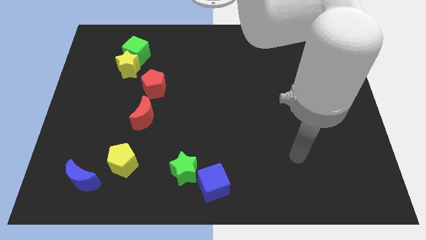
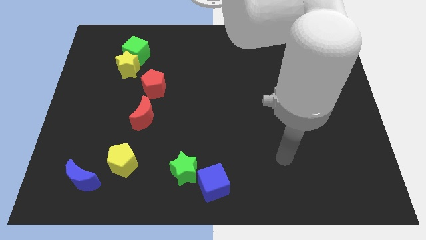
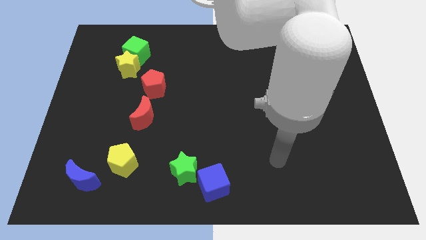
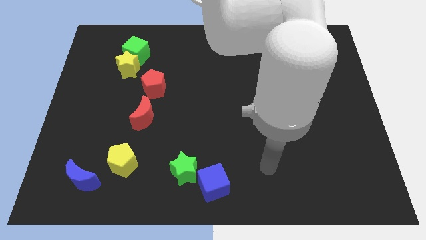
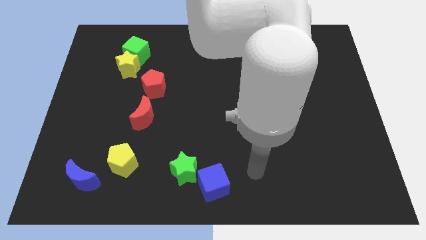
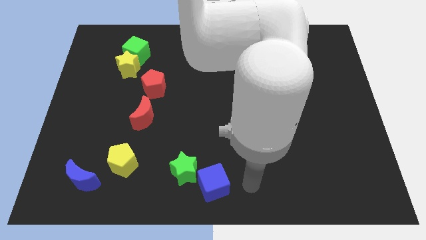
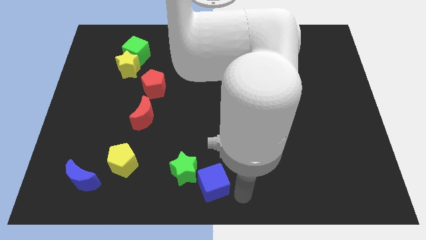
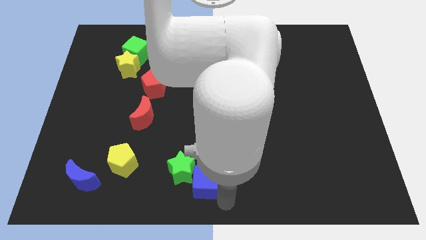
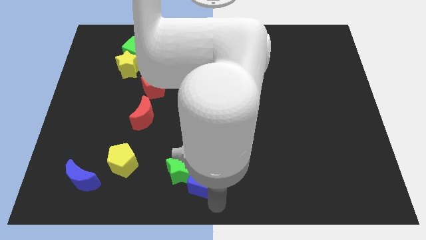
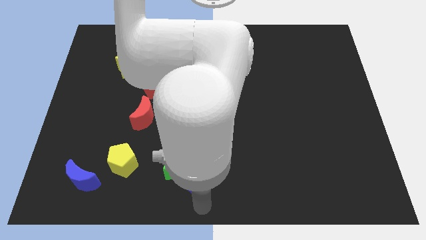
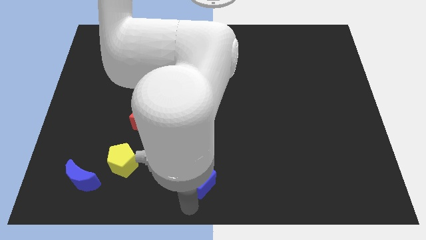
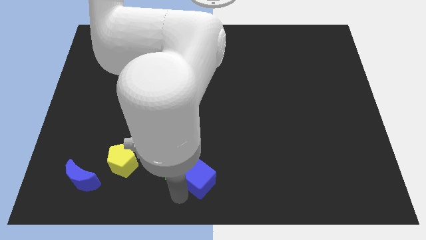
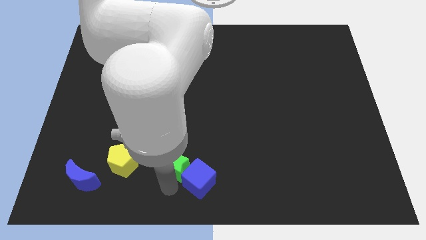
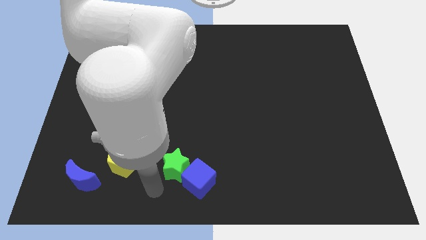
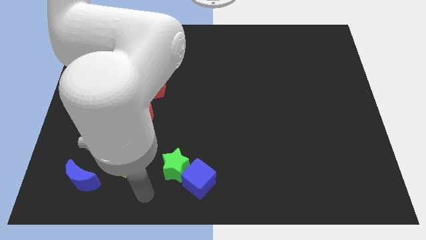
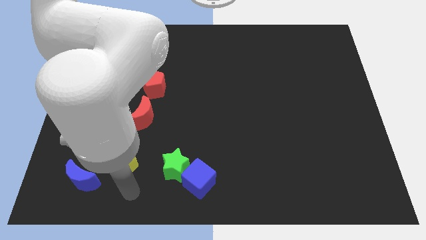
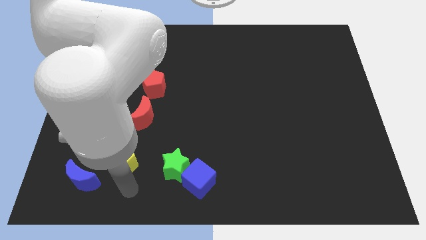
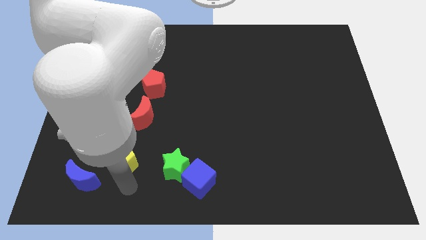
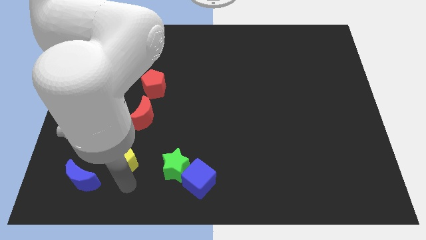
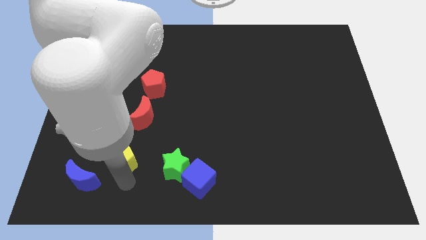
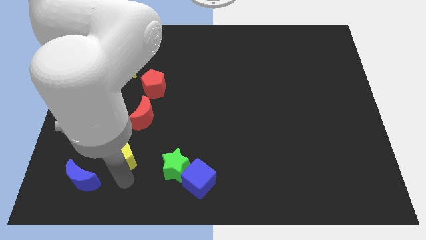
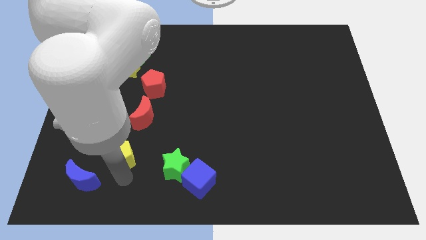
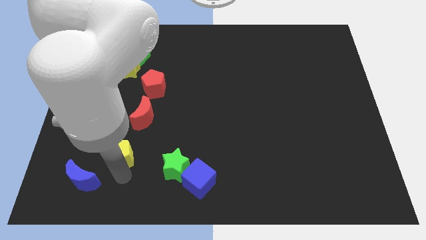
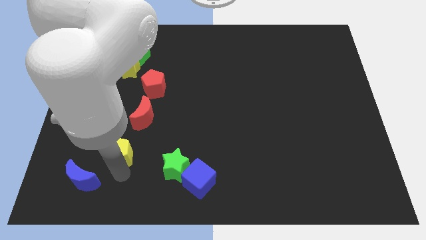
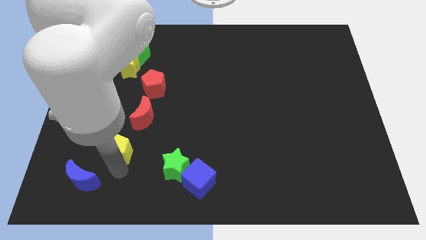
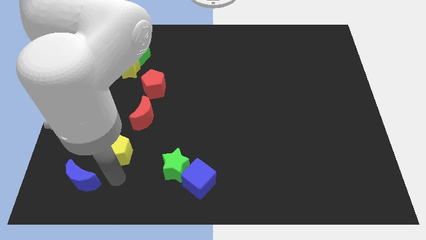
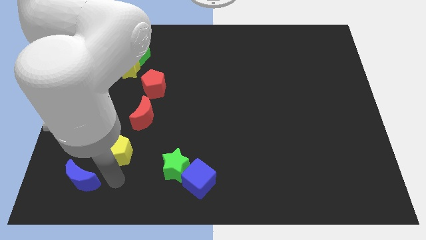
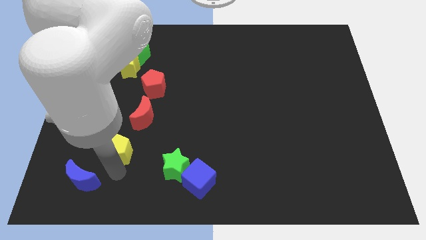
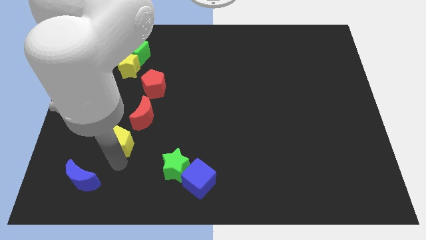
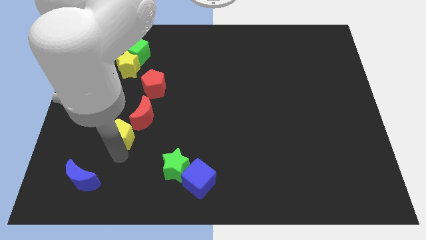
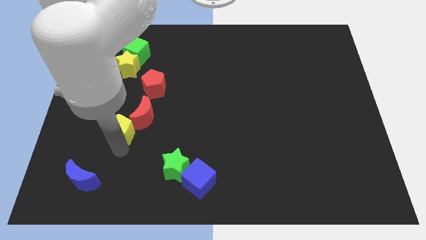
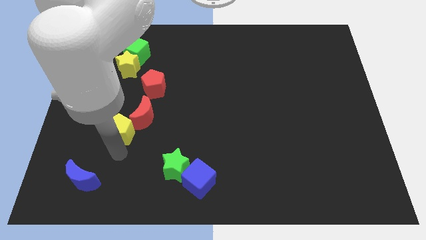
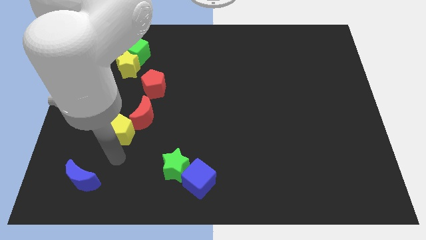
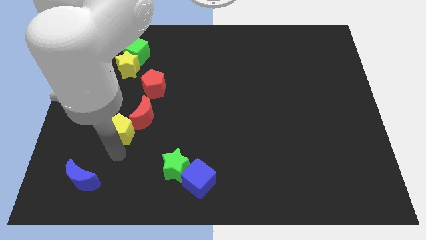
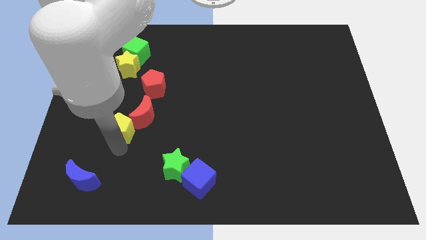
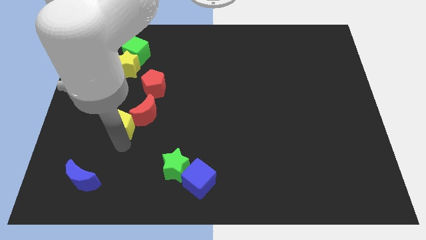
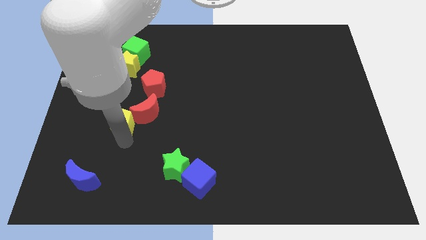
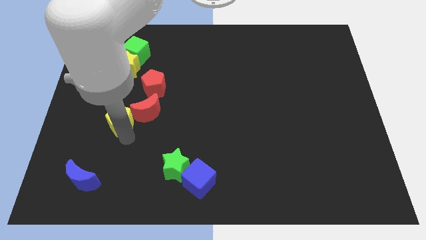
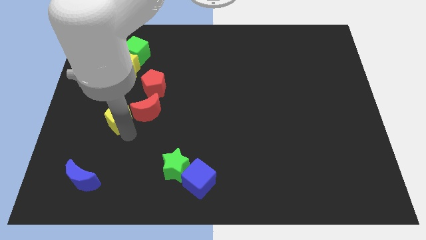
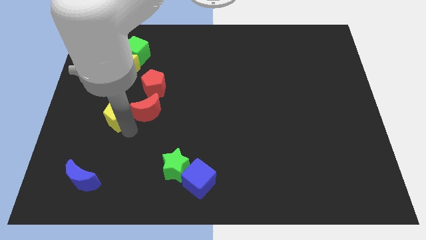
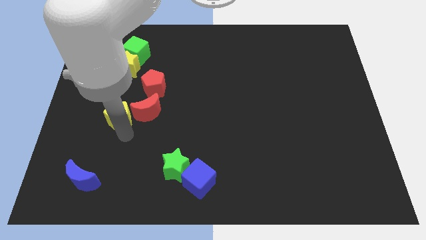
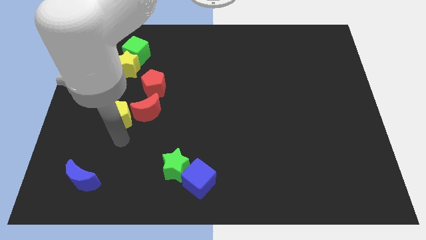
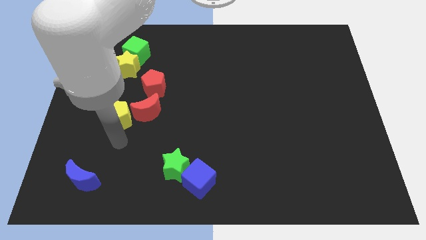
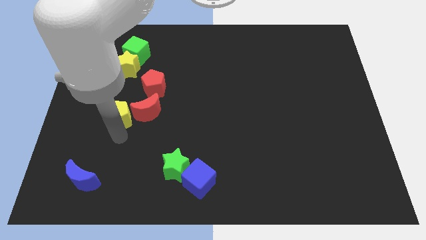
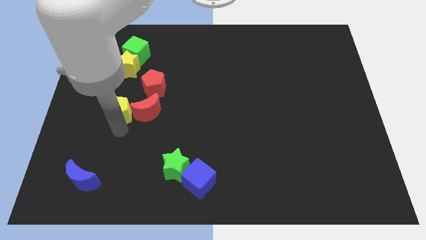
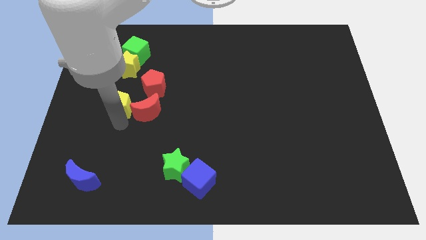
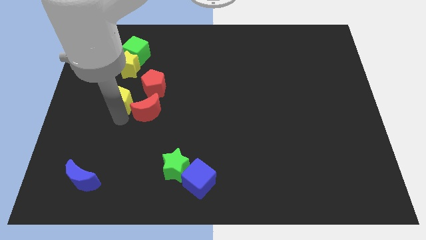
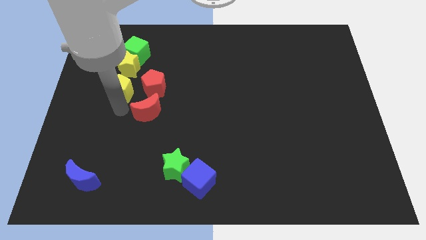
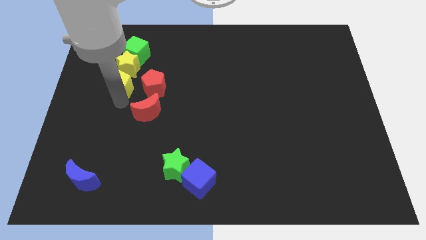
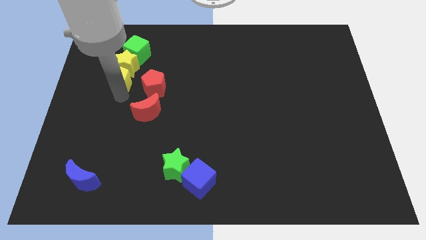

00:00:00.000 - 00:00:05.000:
put the yellow pentagon towards the yellow star
